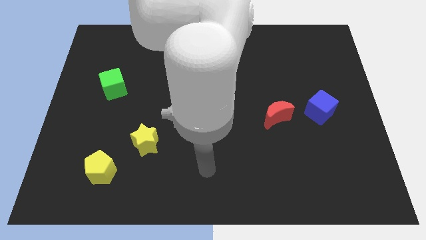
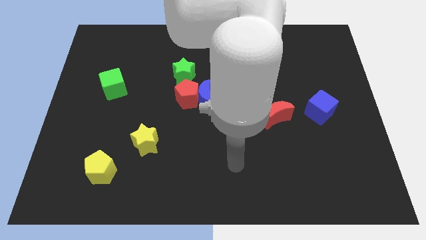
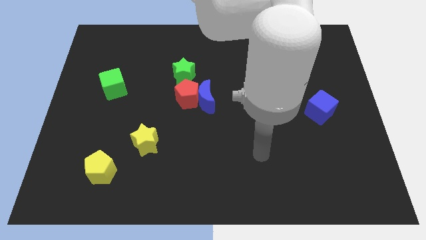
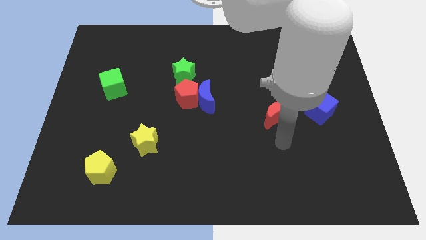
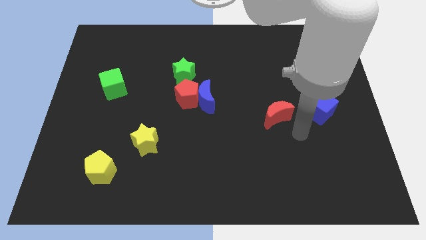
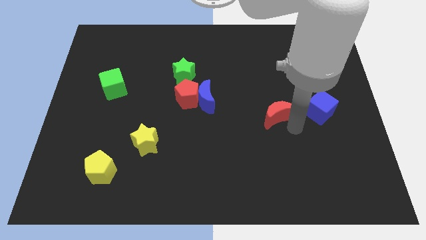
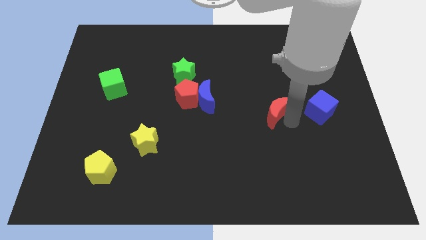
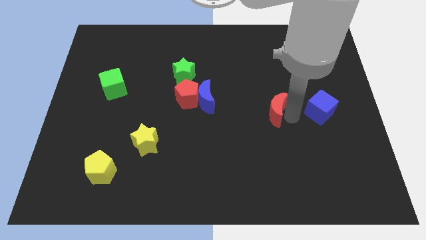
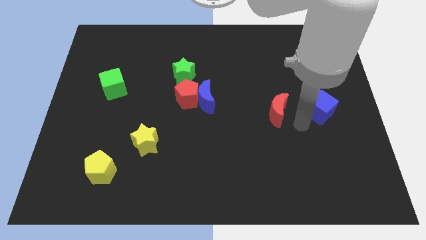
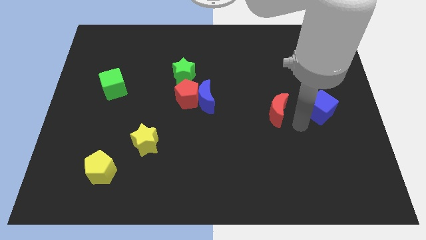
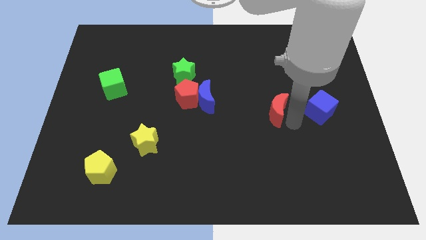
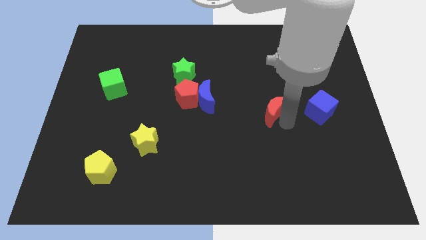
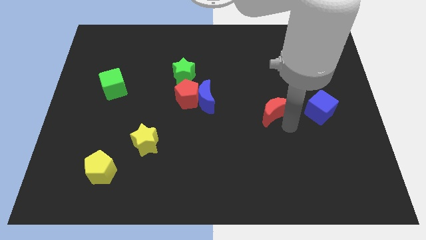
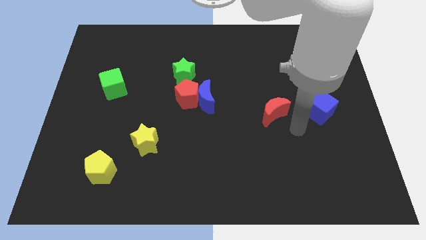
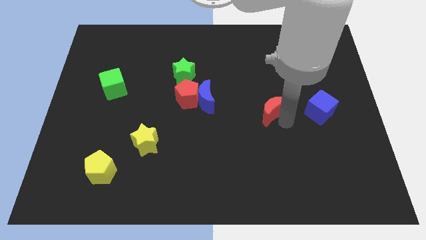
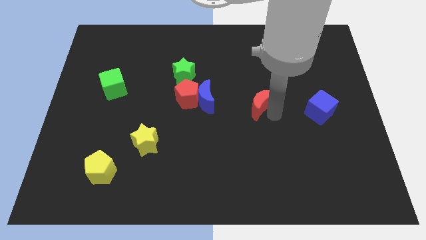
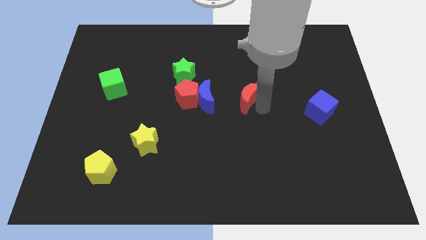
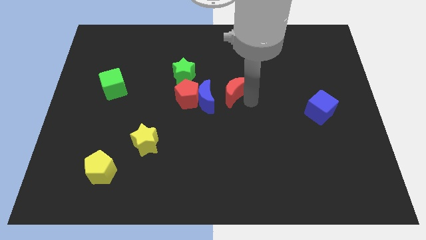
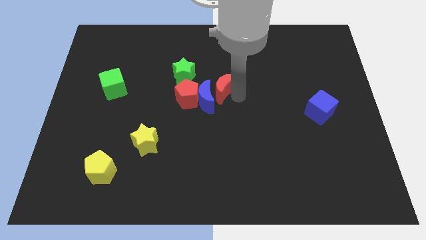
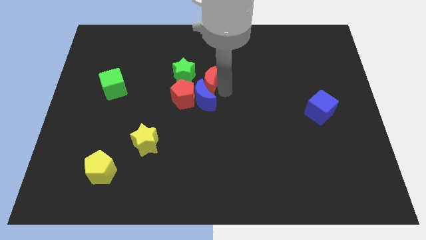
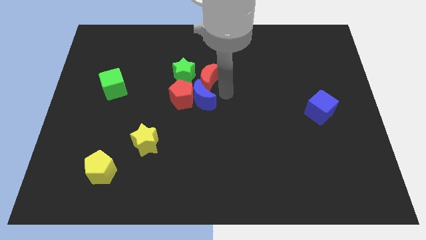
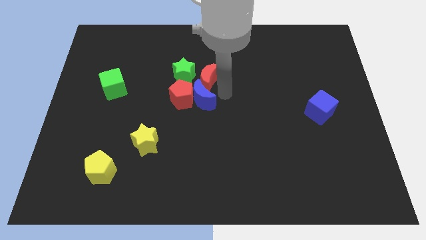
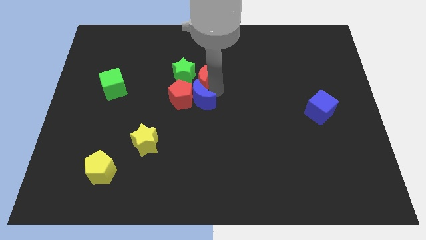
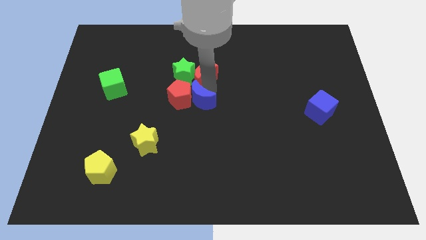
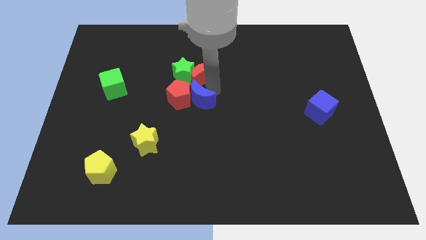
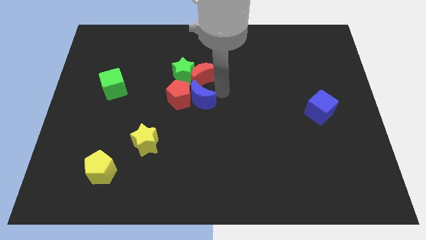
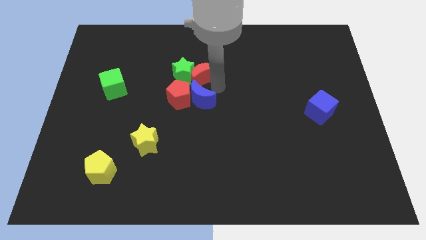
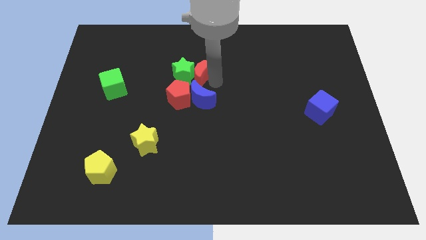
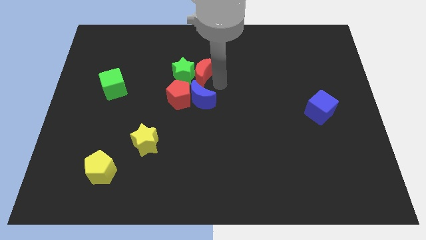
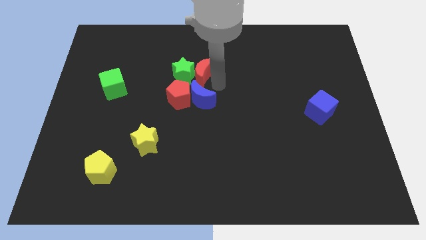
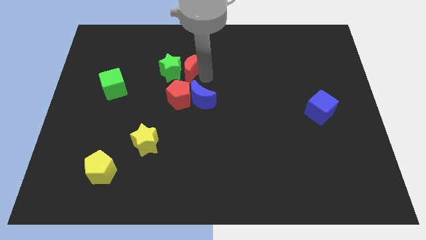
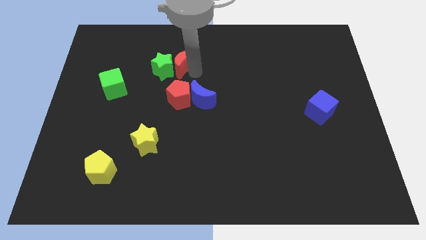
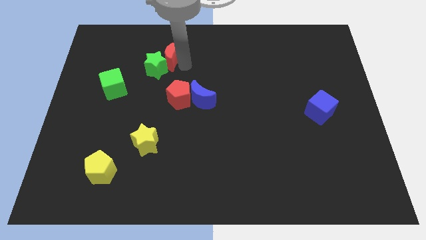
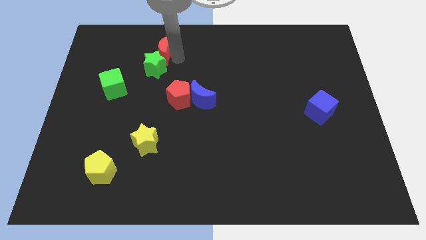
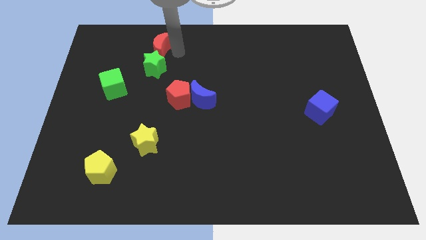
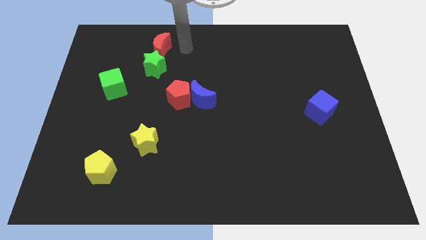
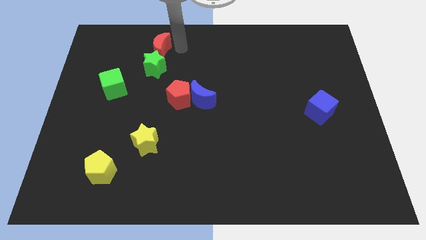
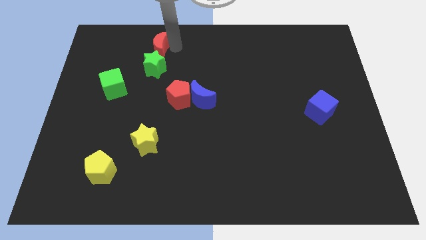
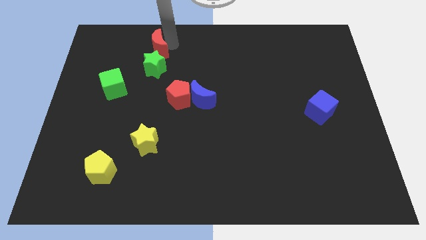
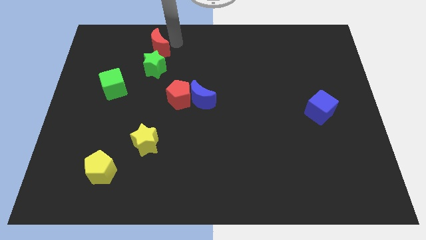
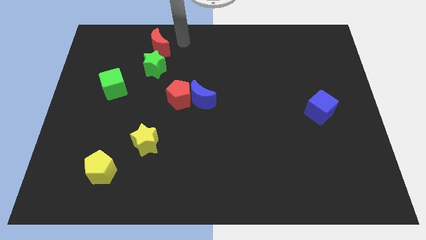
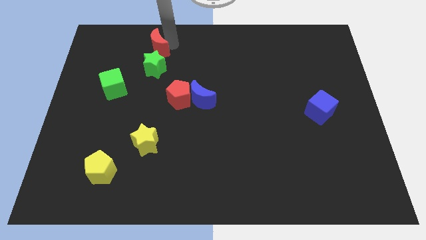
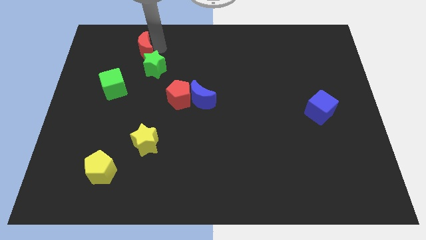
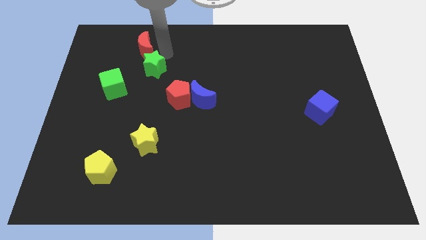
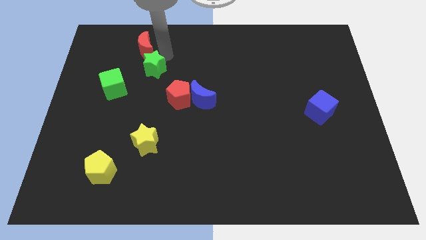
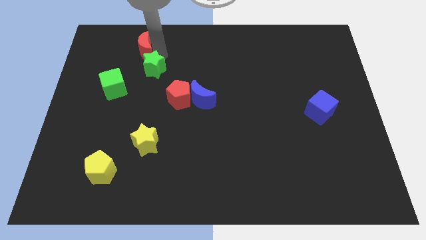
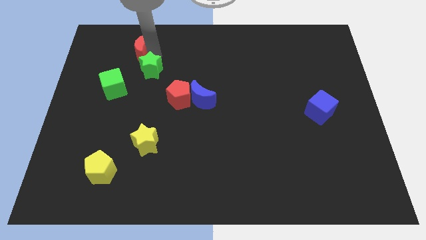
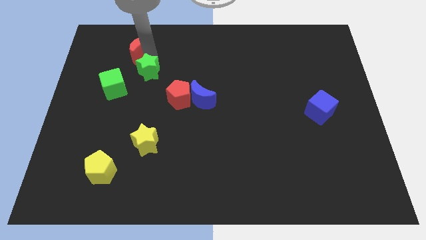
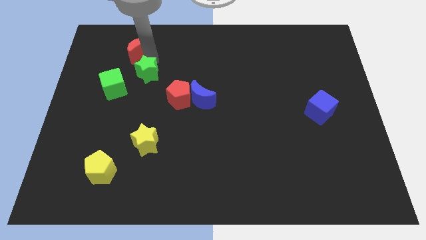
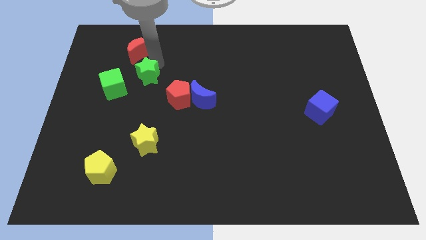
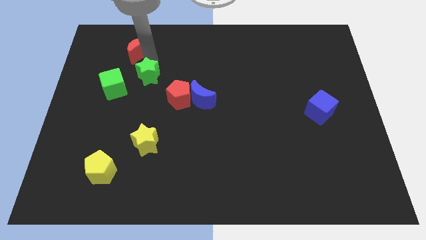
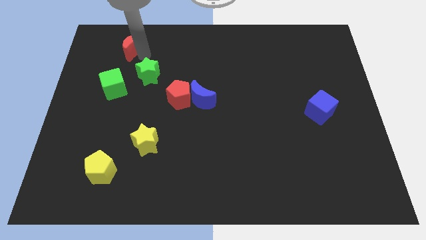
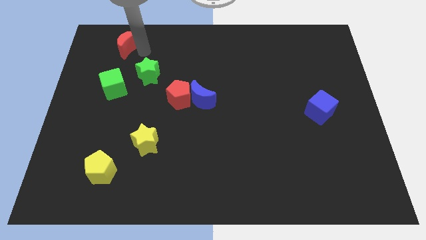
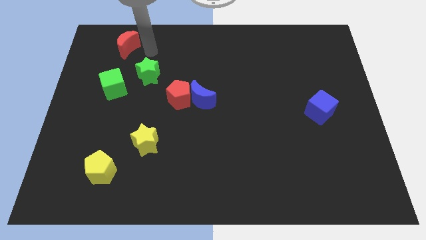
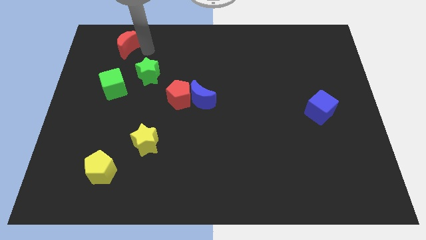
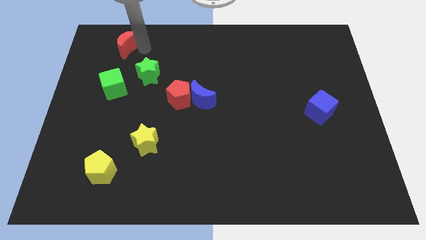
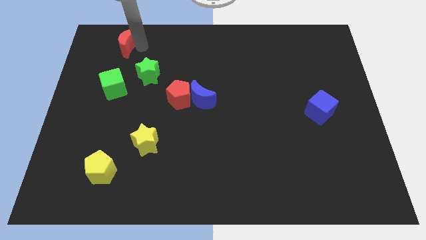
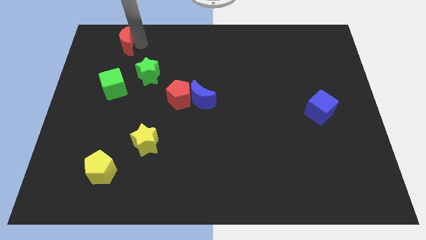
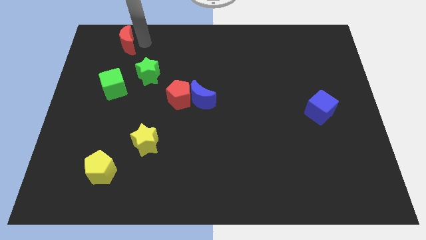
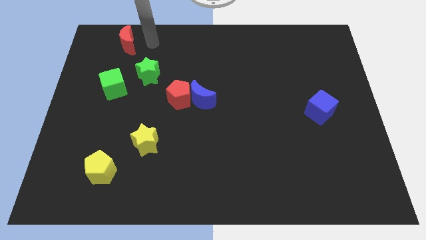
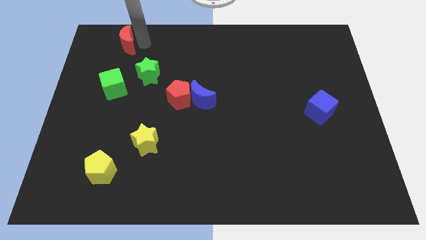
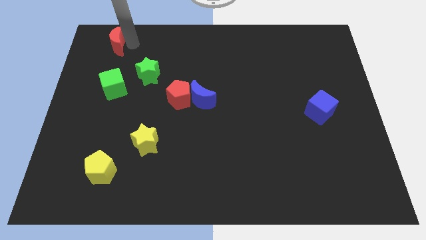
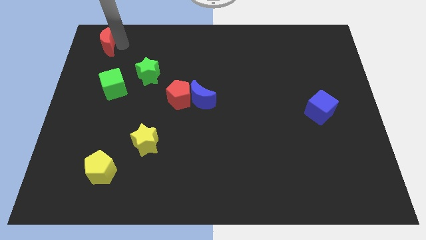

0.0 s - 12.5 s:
push the red moon to the top left corner

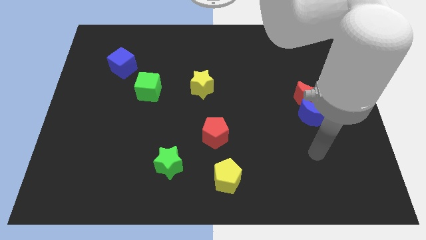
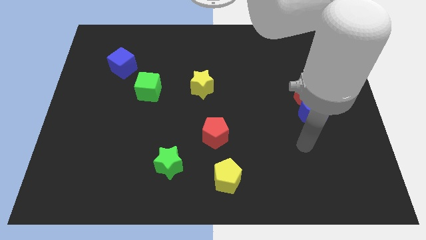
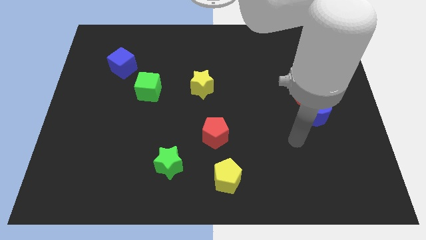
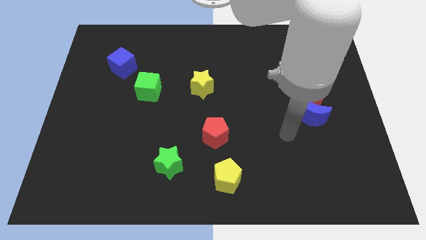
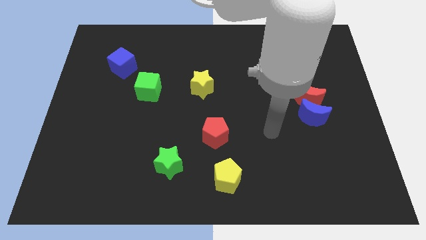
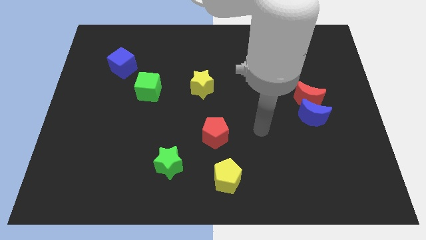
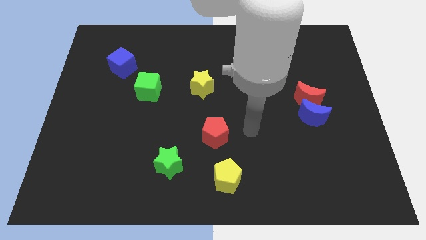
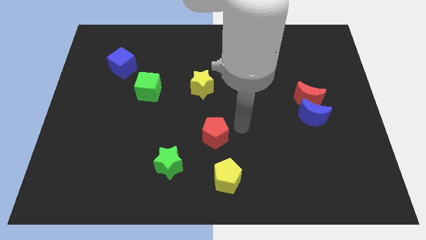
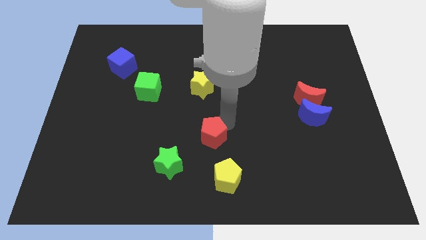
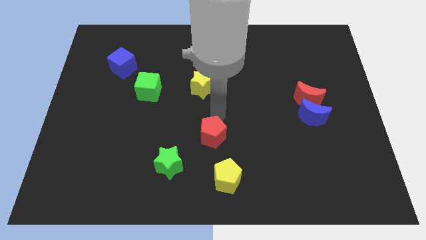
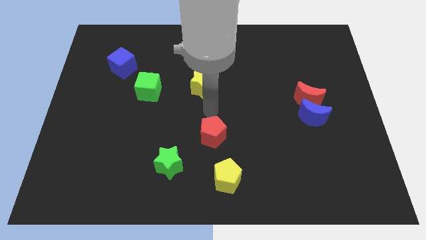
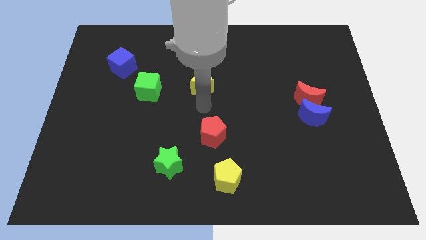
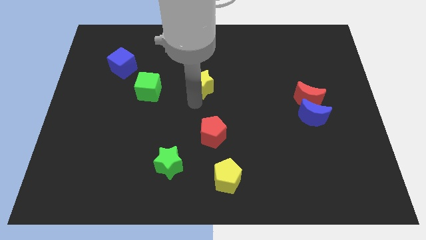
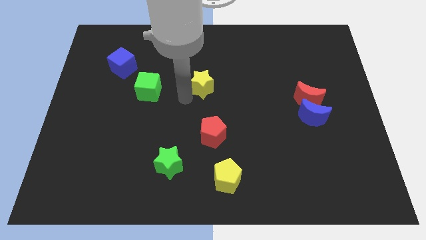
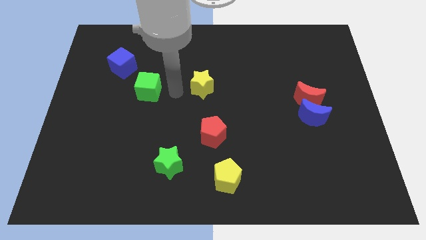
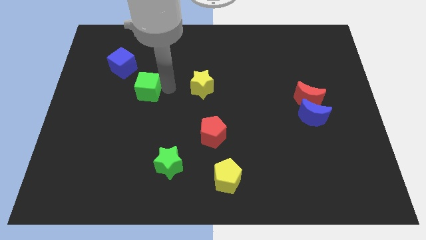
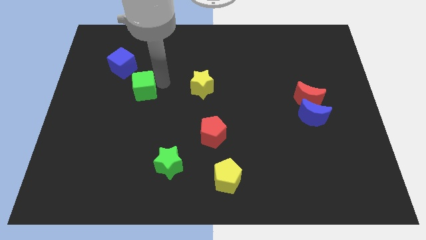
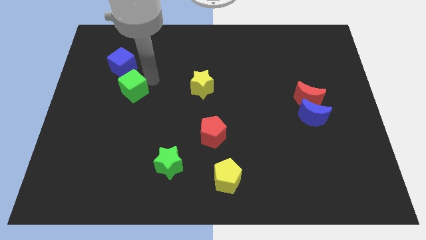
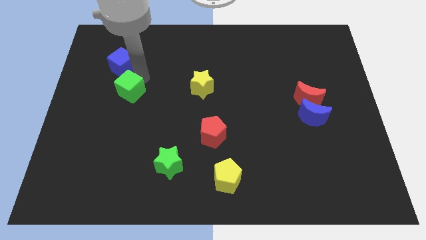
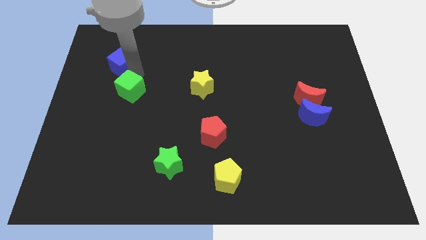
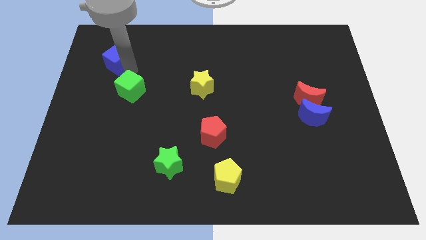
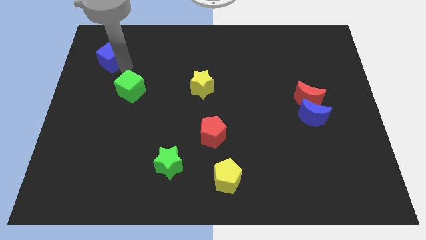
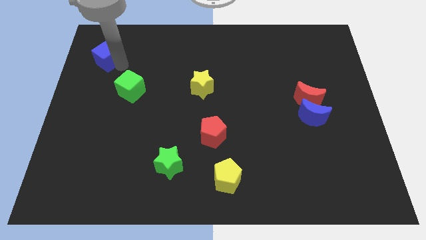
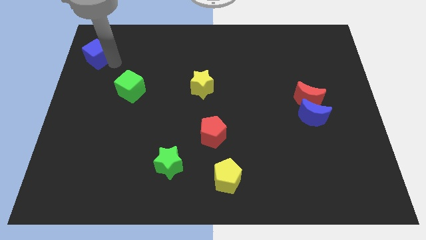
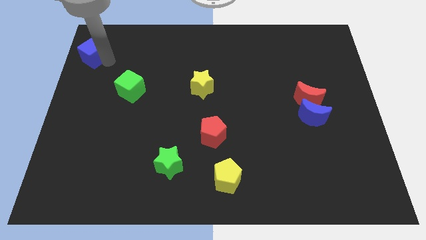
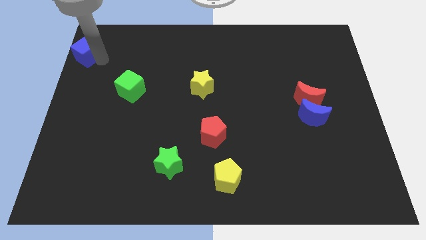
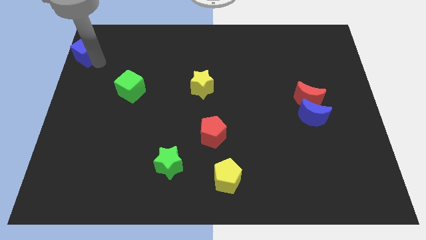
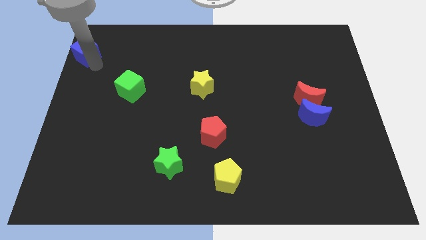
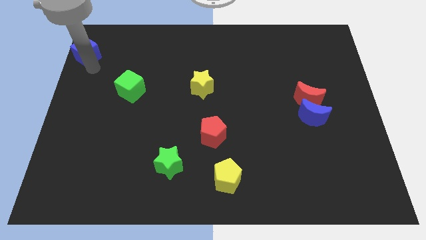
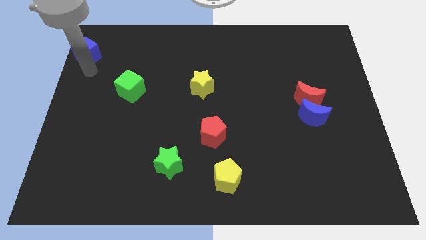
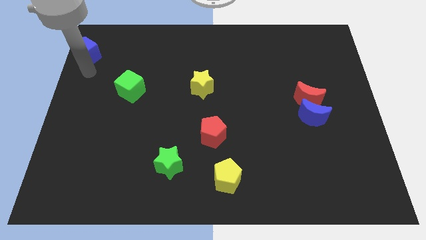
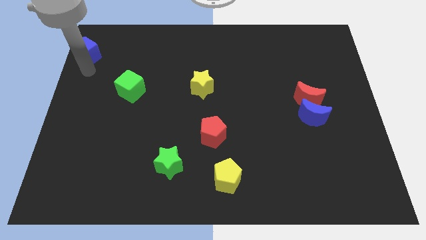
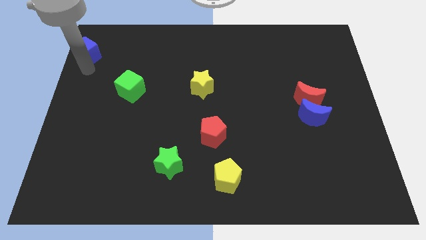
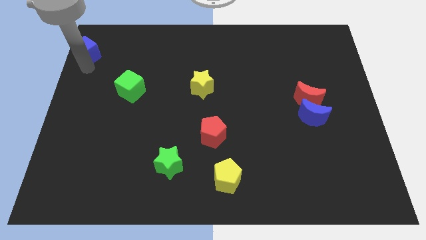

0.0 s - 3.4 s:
move the blue cube to the top left
